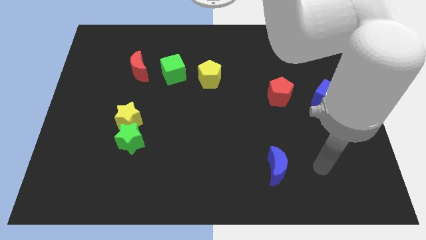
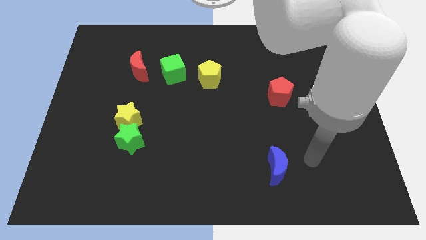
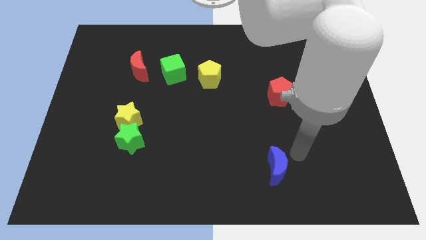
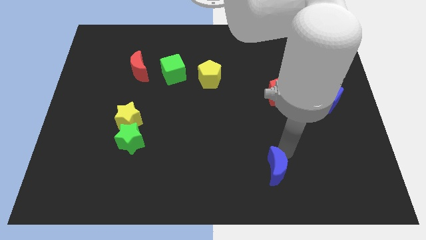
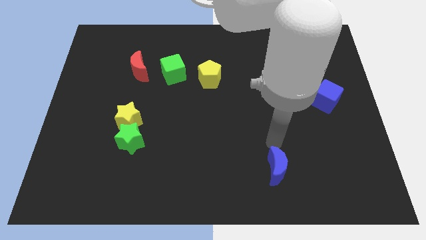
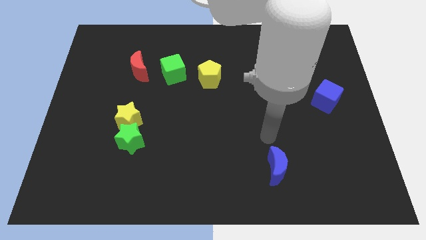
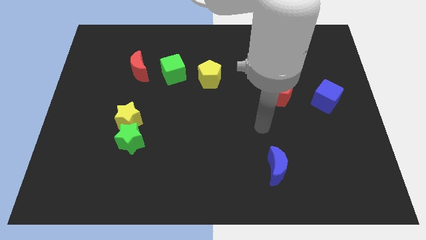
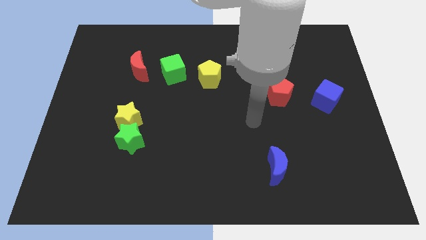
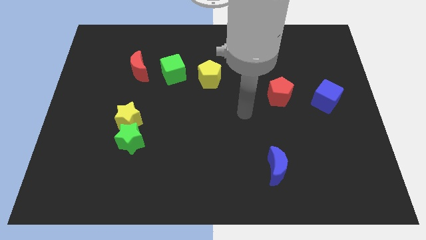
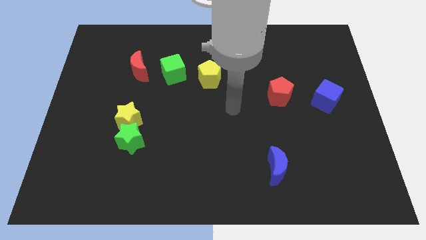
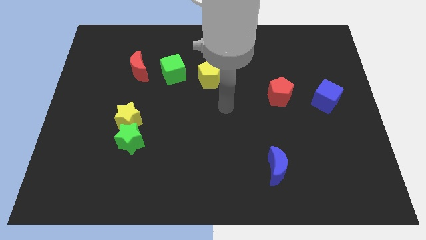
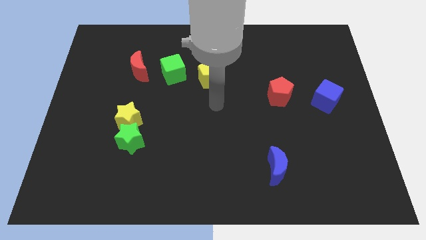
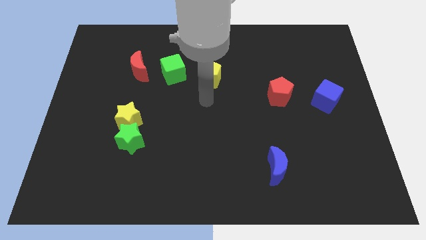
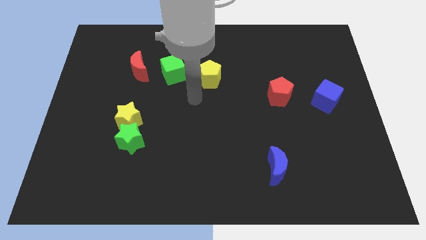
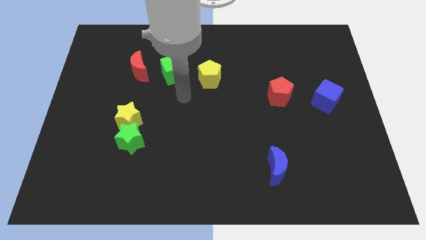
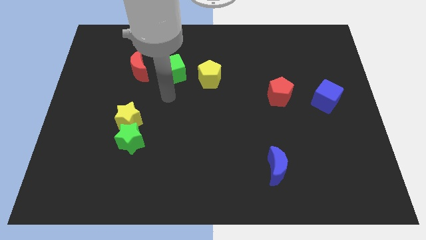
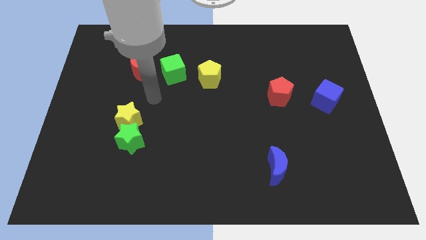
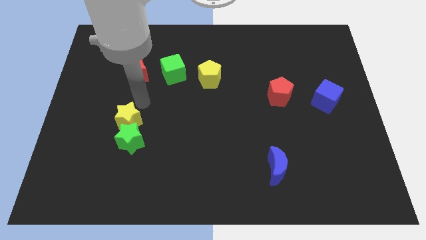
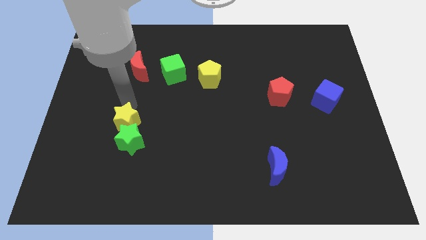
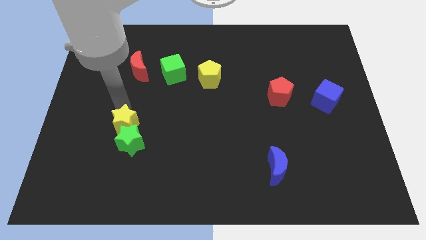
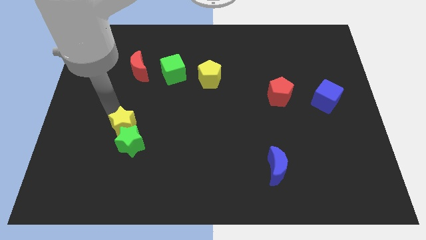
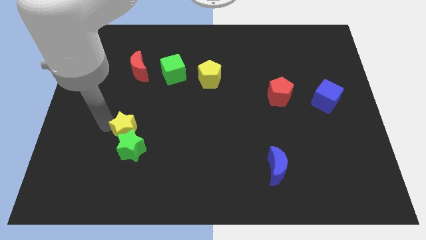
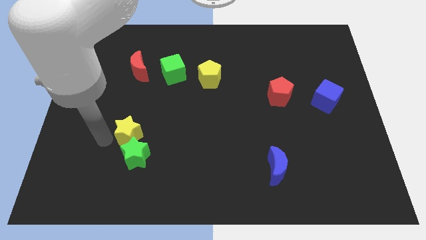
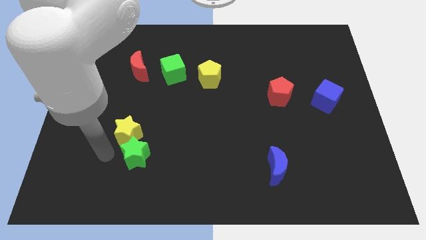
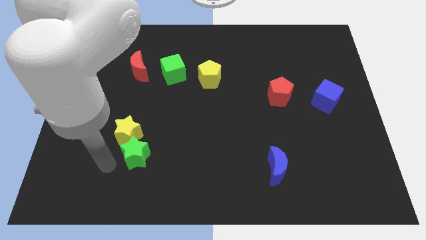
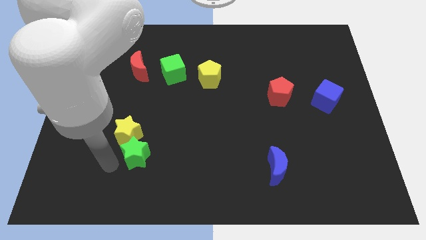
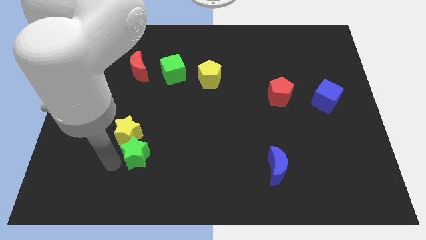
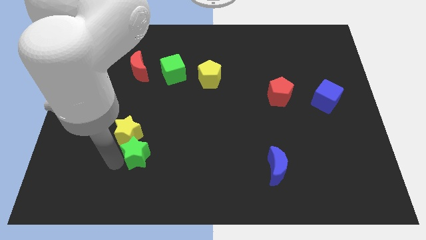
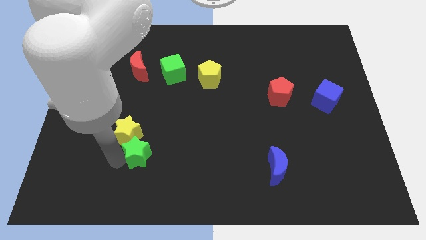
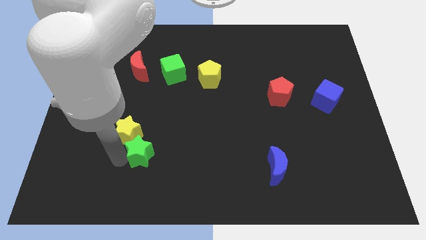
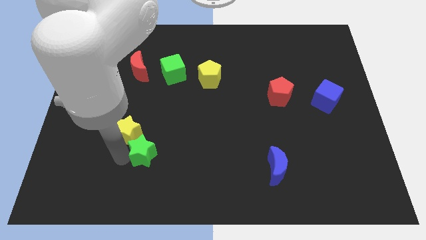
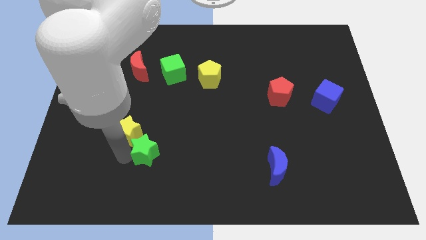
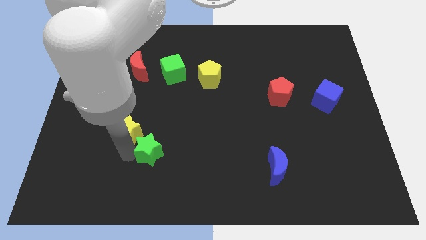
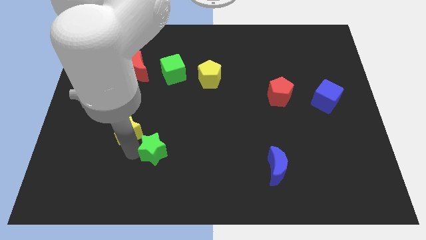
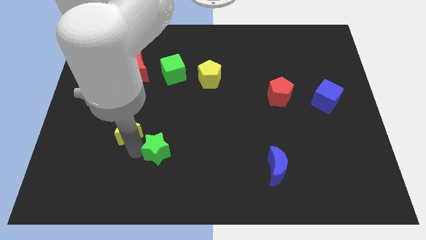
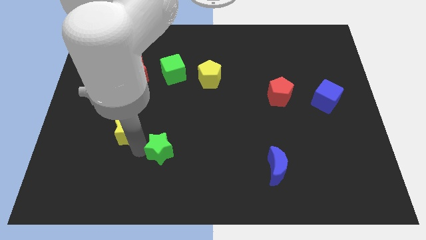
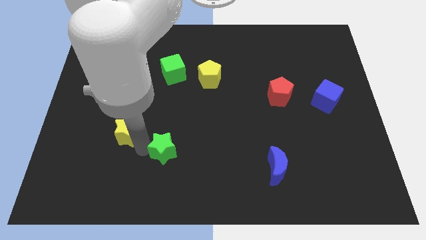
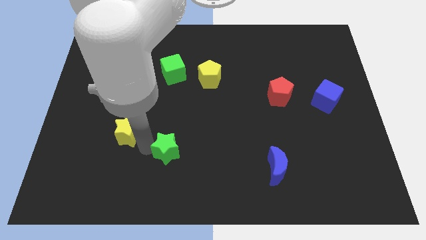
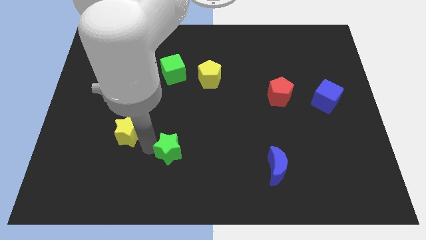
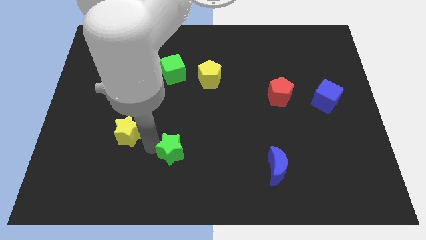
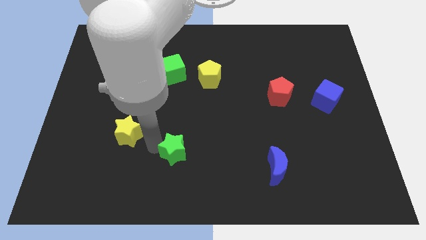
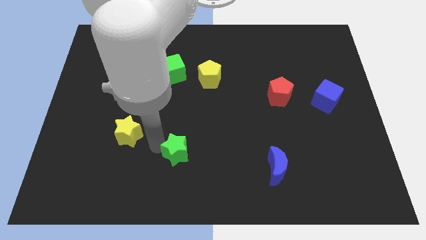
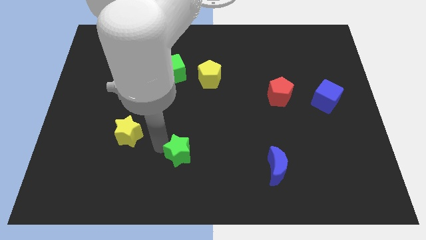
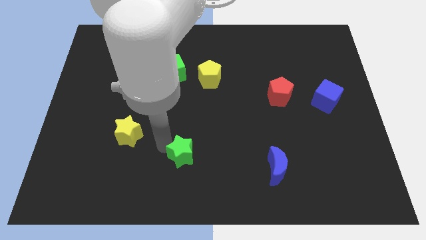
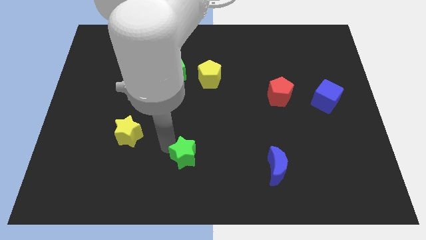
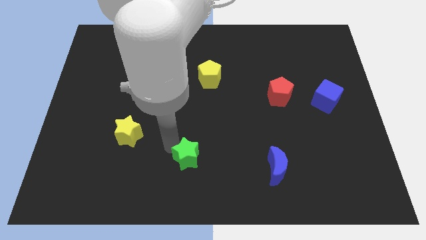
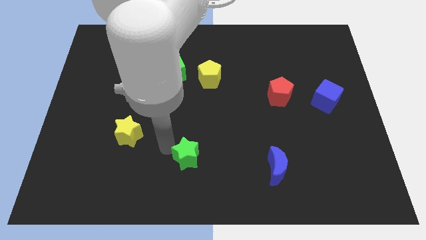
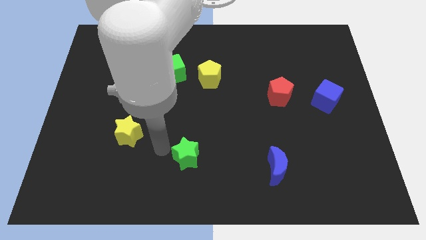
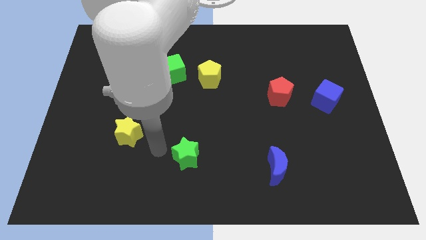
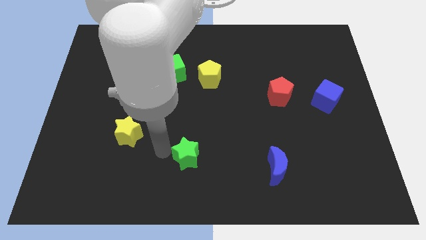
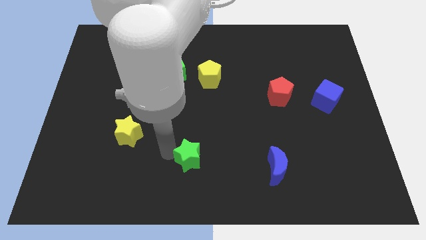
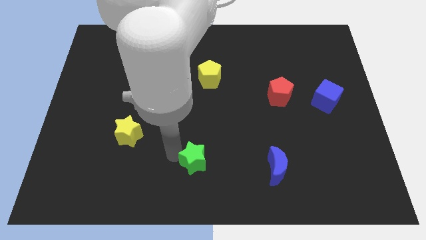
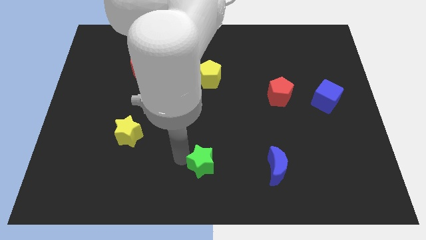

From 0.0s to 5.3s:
push the green star left of the blue moon

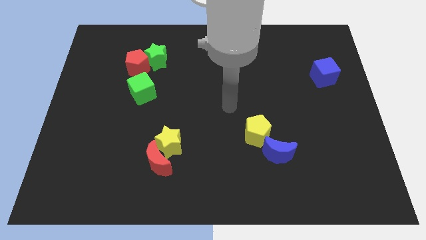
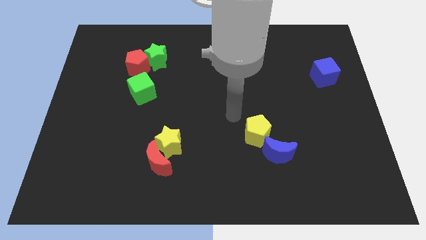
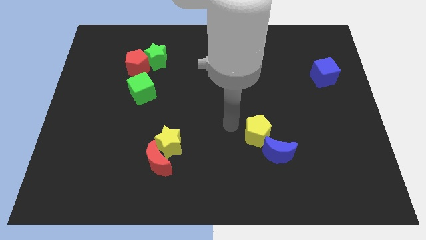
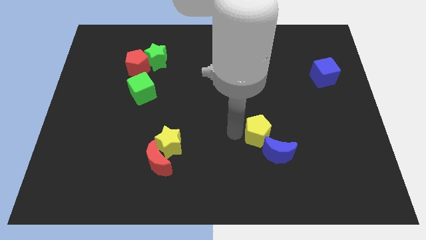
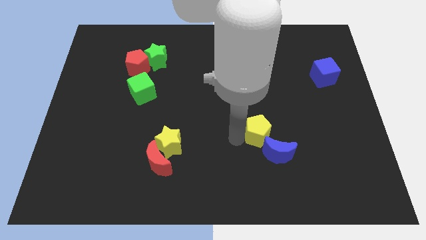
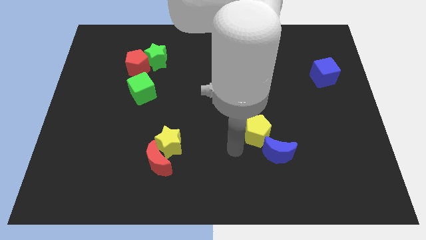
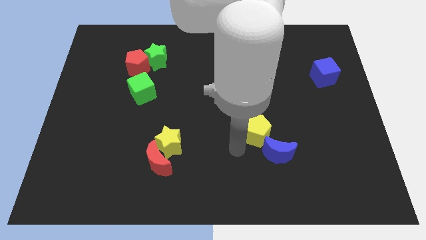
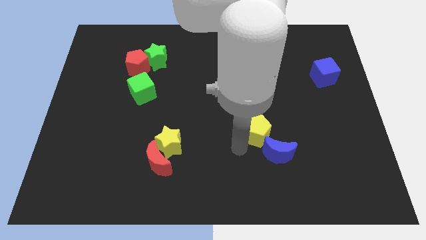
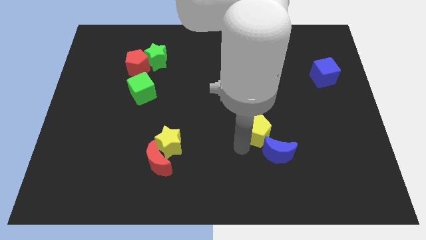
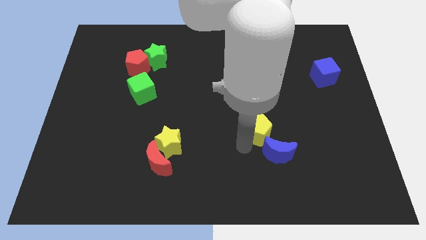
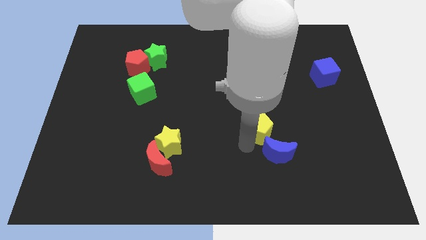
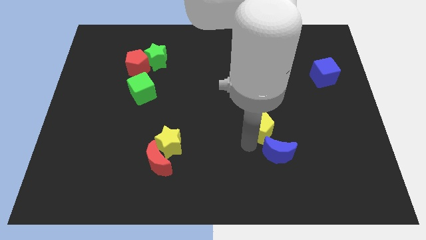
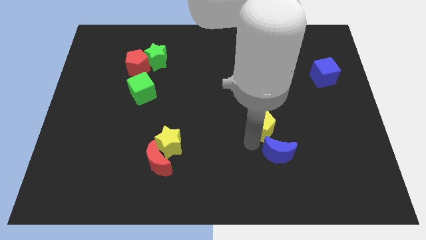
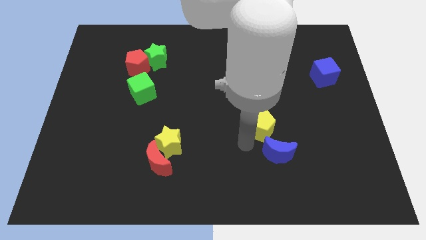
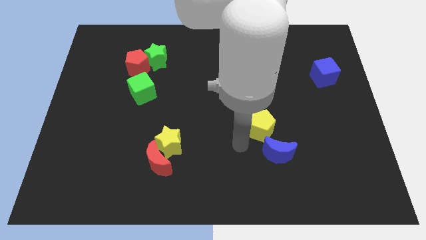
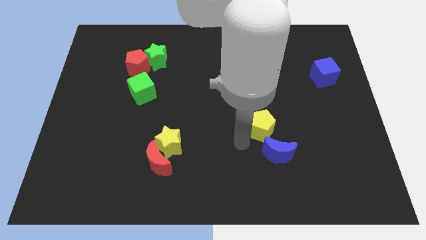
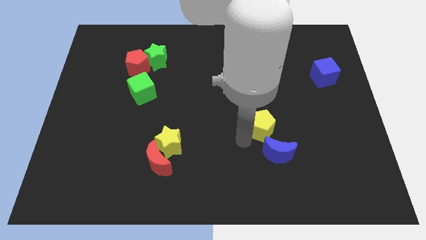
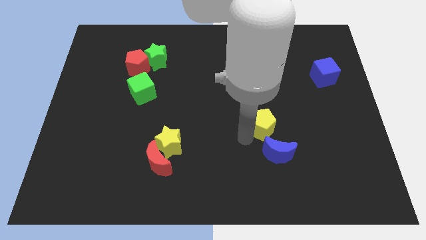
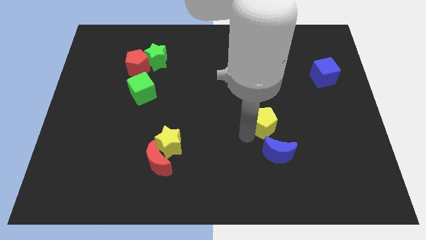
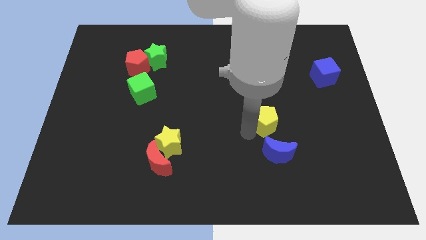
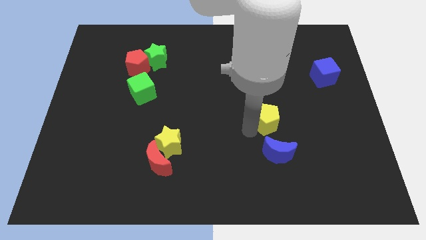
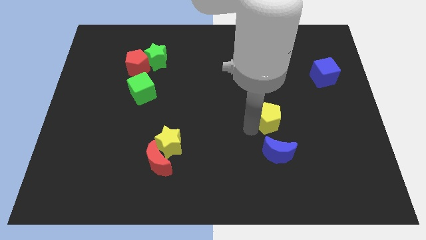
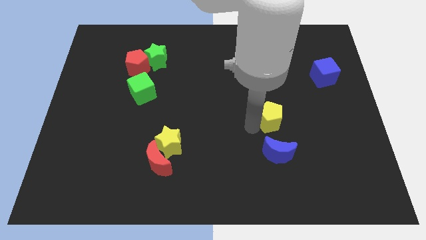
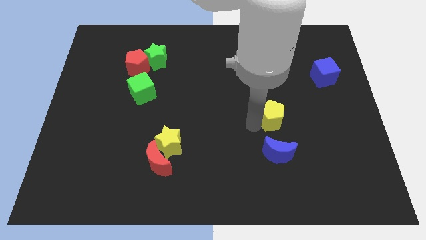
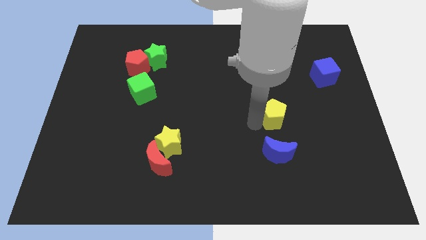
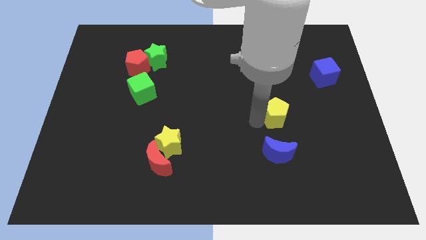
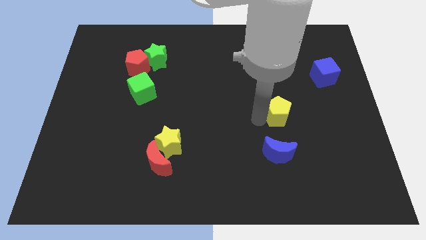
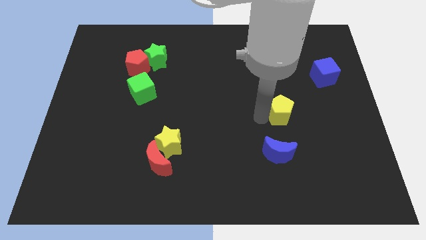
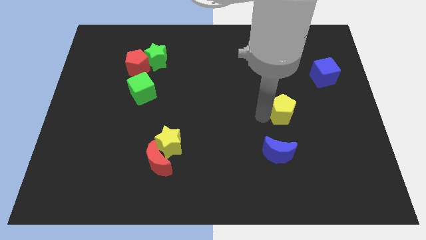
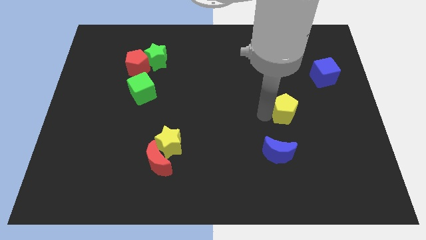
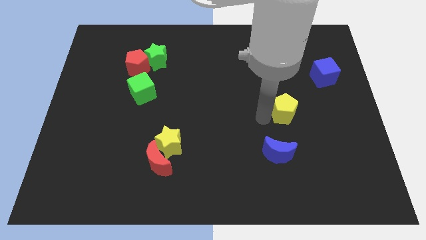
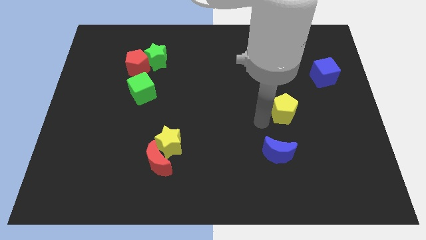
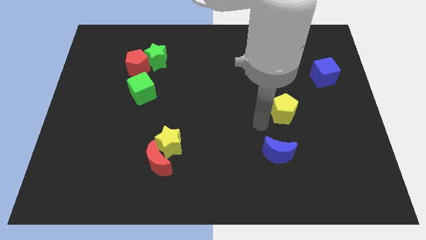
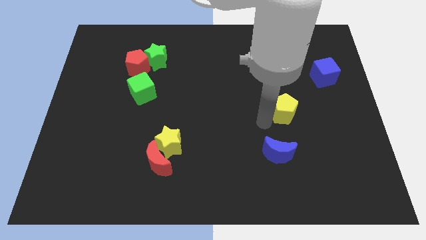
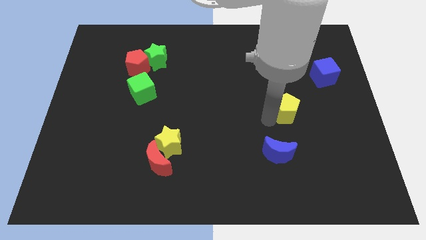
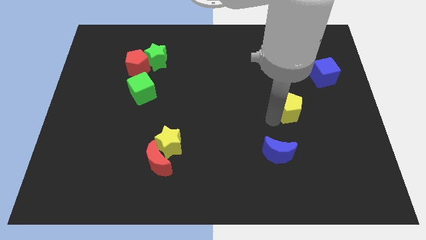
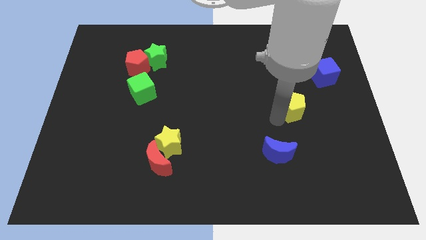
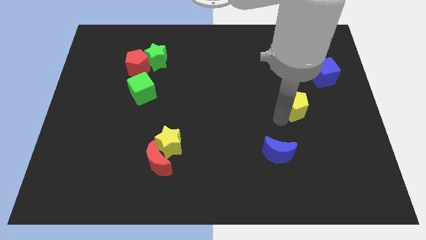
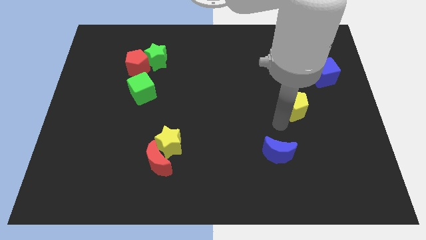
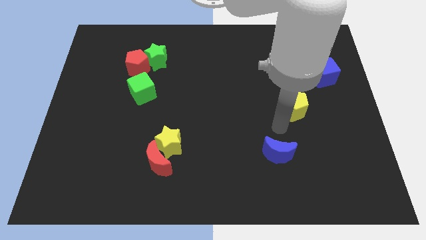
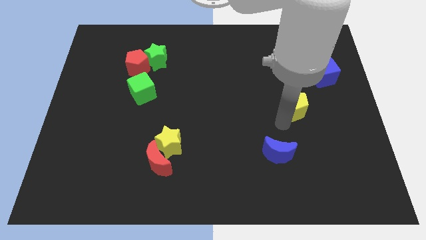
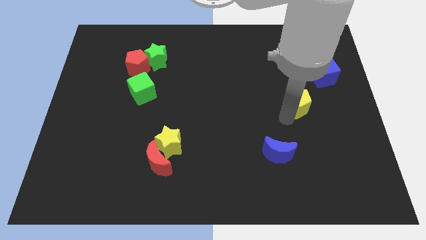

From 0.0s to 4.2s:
put the yellow pentagon to the bottom left side of the blue cube
